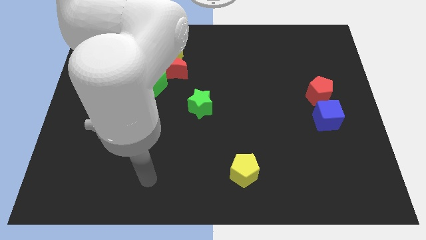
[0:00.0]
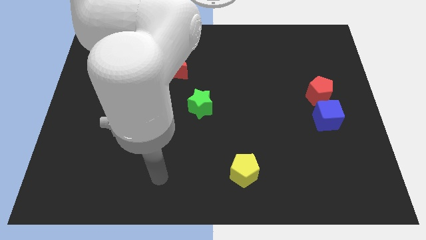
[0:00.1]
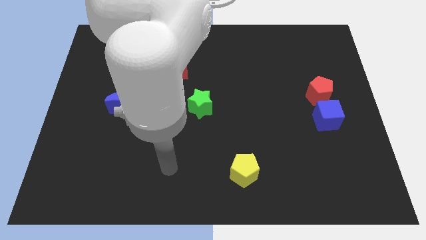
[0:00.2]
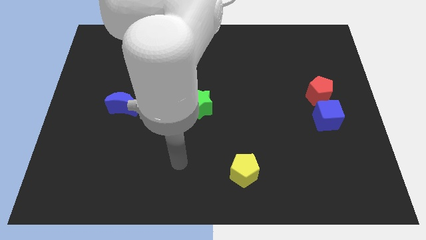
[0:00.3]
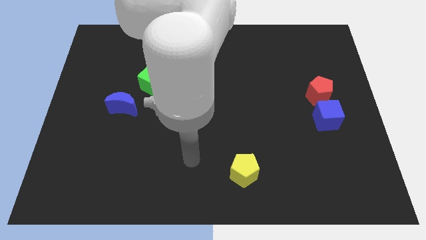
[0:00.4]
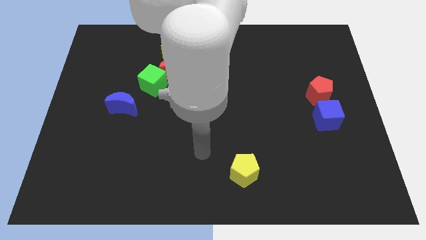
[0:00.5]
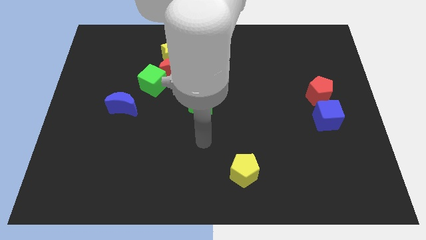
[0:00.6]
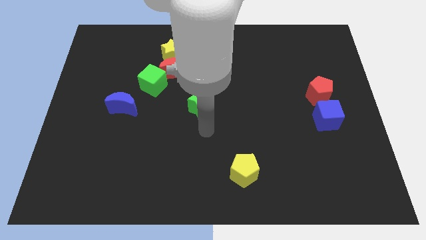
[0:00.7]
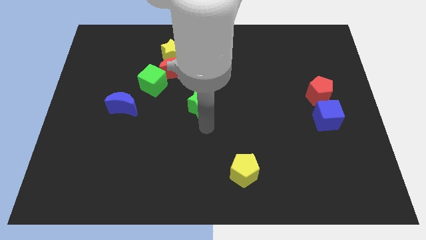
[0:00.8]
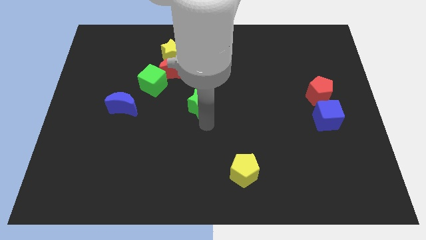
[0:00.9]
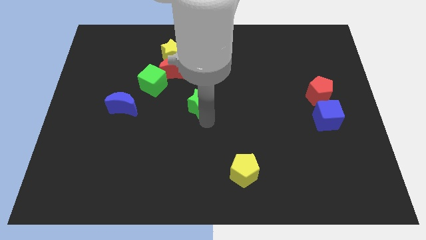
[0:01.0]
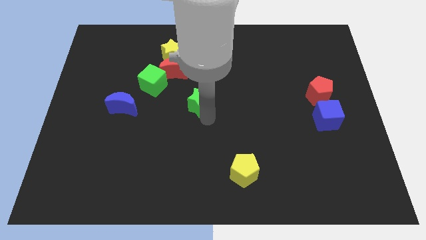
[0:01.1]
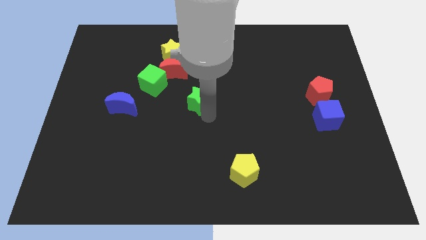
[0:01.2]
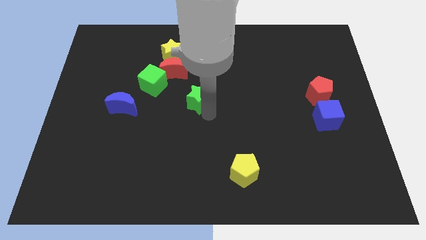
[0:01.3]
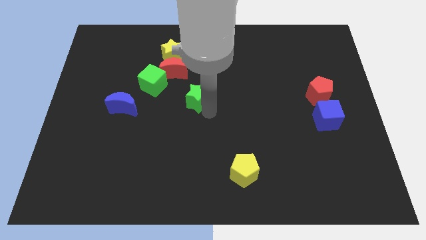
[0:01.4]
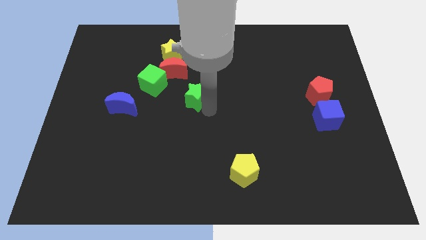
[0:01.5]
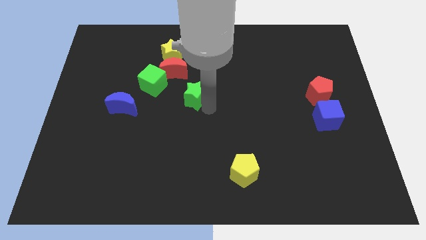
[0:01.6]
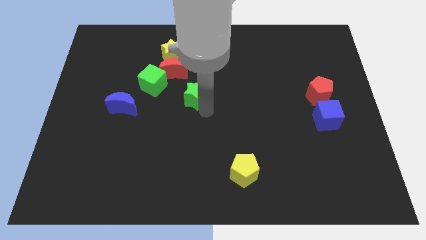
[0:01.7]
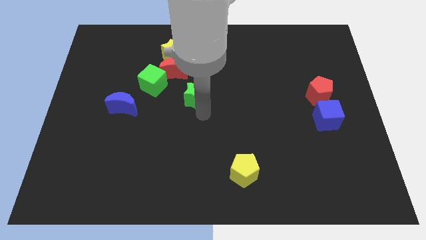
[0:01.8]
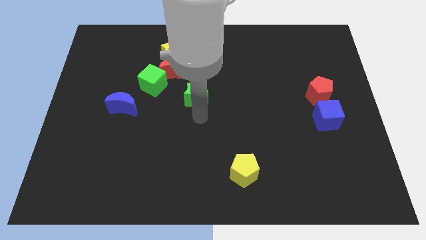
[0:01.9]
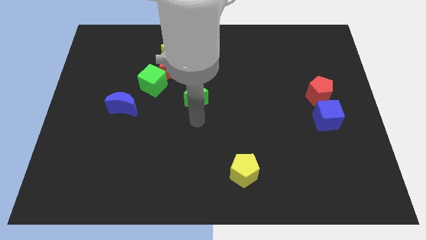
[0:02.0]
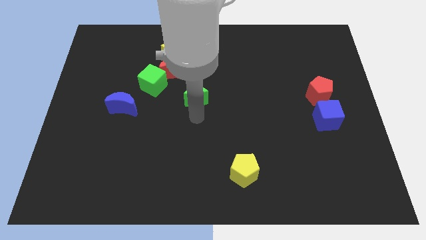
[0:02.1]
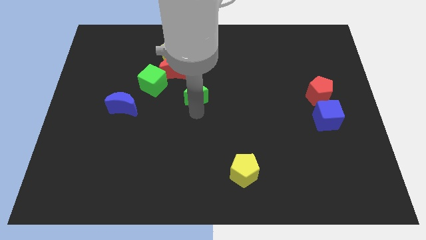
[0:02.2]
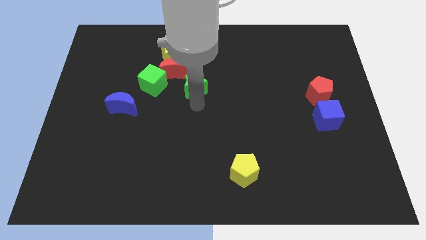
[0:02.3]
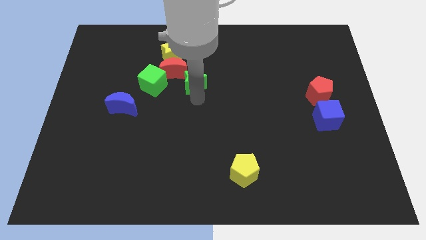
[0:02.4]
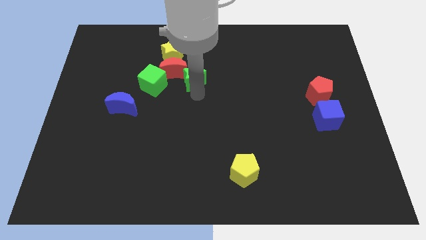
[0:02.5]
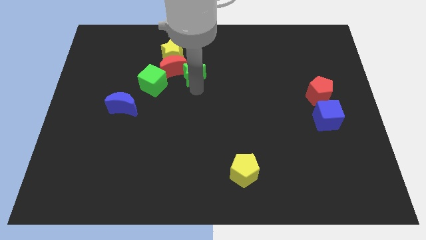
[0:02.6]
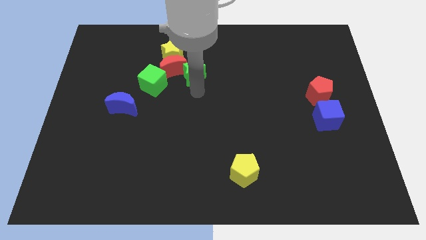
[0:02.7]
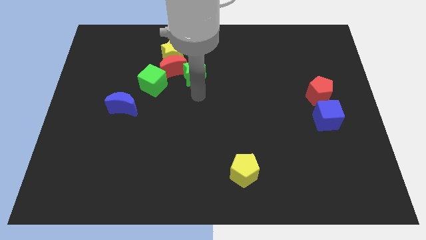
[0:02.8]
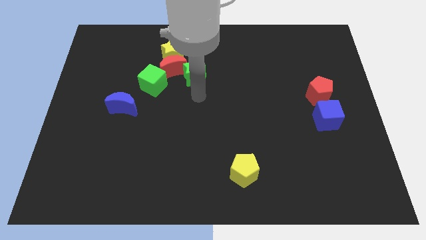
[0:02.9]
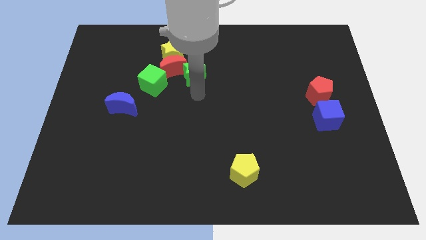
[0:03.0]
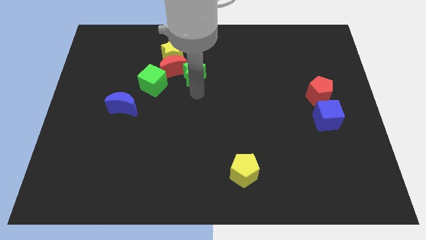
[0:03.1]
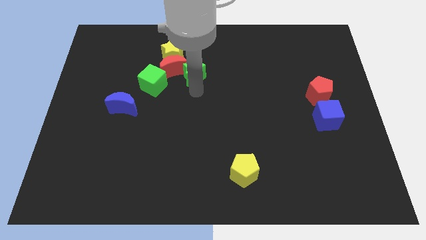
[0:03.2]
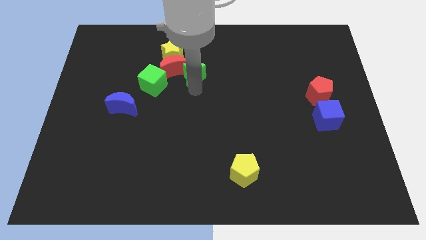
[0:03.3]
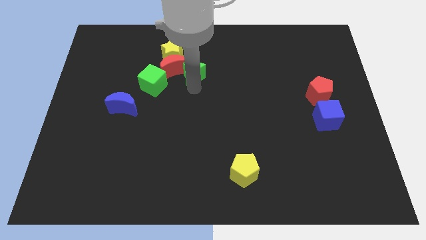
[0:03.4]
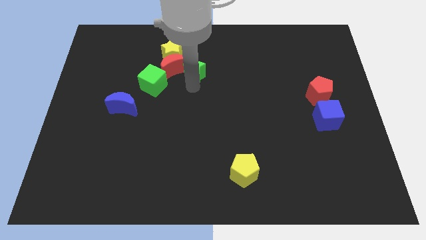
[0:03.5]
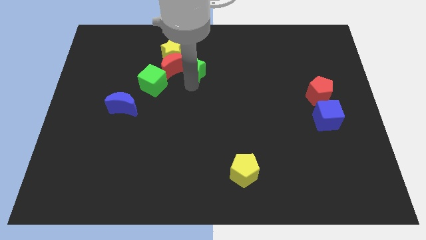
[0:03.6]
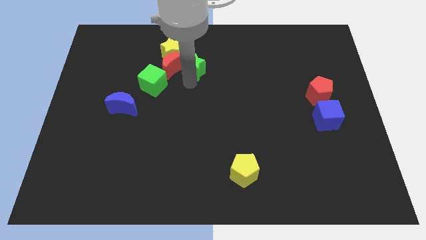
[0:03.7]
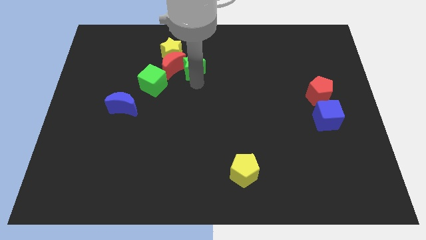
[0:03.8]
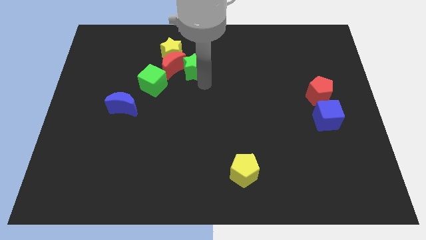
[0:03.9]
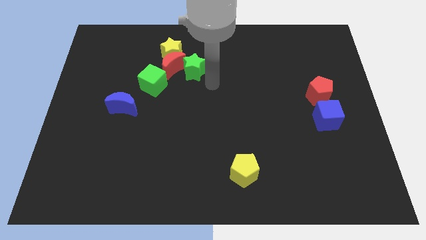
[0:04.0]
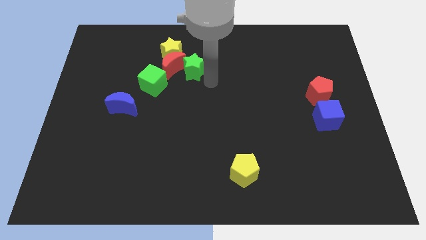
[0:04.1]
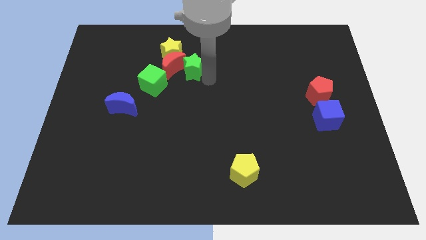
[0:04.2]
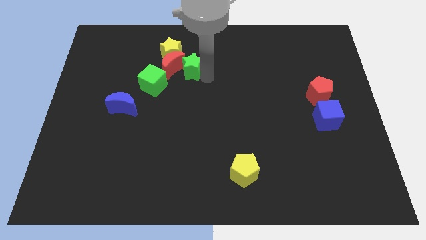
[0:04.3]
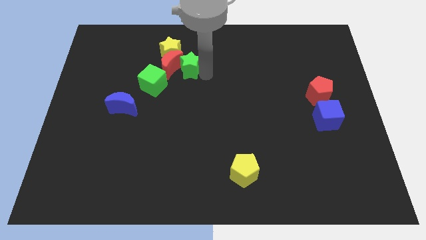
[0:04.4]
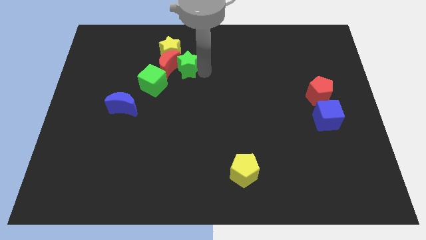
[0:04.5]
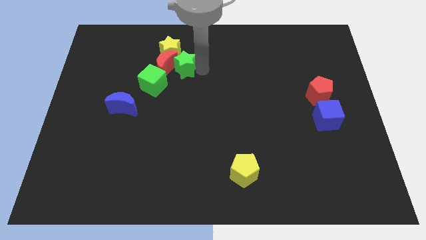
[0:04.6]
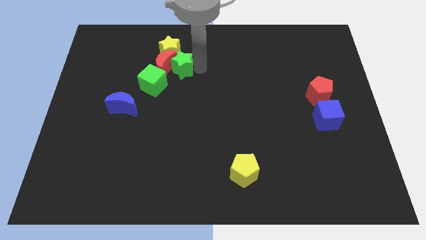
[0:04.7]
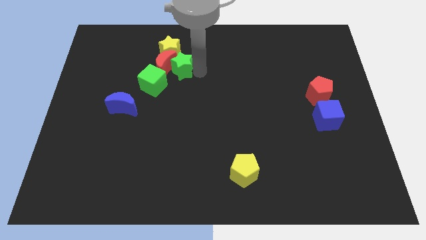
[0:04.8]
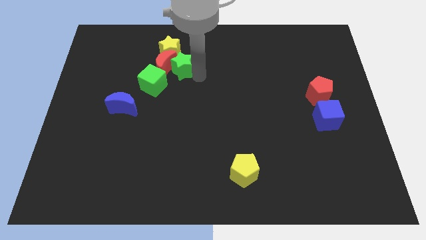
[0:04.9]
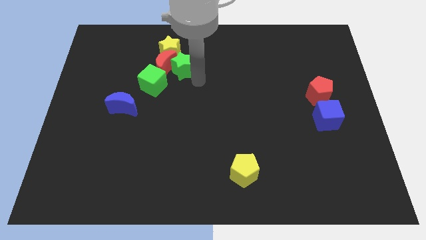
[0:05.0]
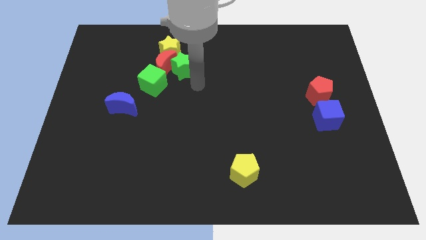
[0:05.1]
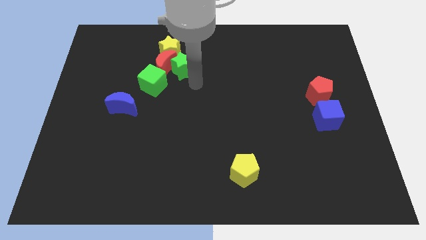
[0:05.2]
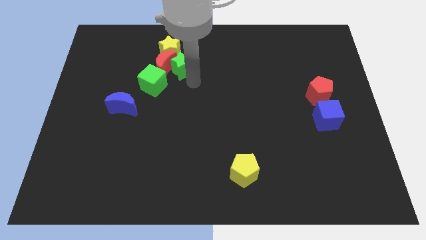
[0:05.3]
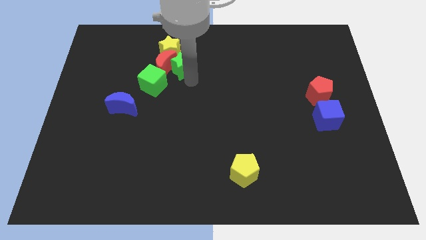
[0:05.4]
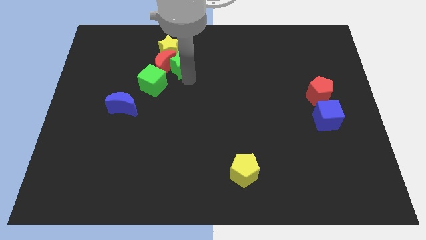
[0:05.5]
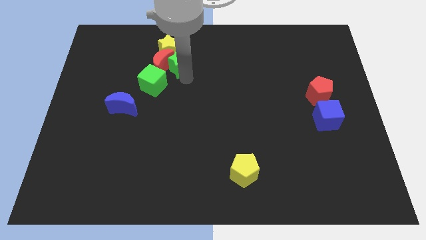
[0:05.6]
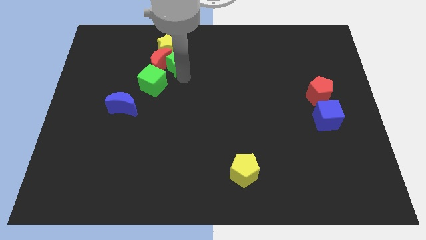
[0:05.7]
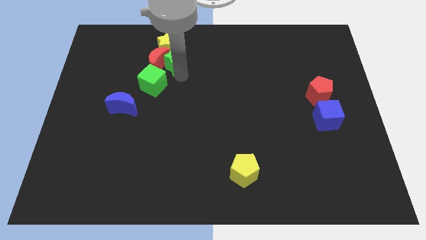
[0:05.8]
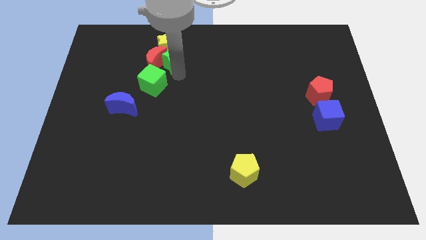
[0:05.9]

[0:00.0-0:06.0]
slide the green star towards the yellow star

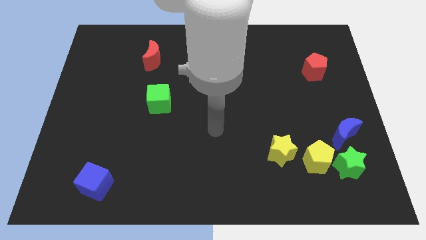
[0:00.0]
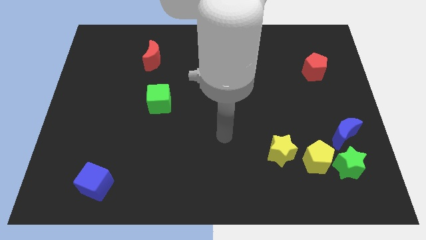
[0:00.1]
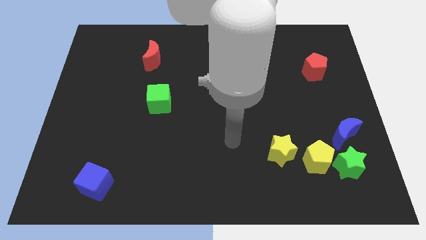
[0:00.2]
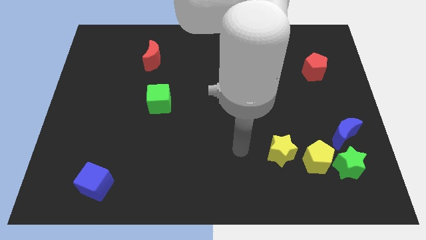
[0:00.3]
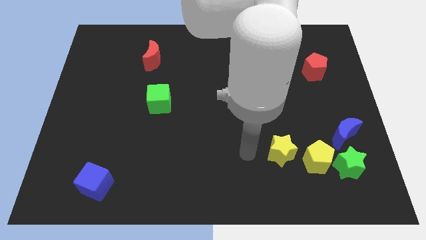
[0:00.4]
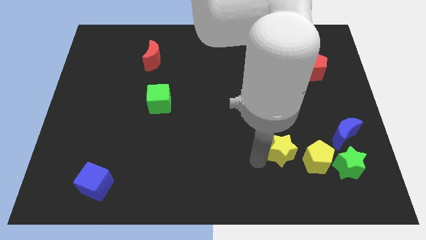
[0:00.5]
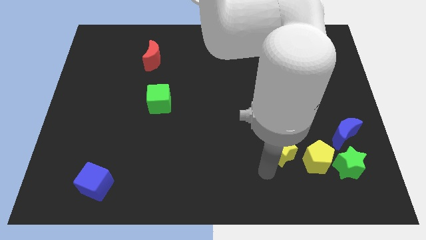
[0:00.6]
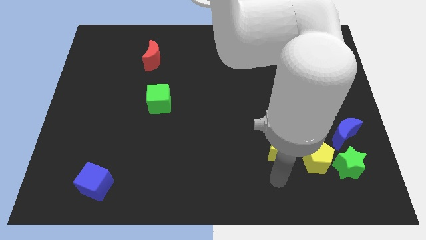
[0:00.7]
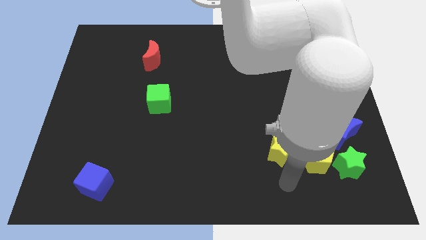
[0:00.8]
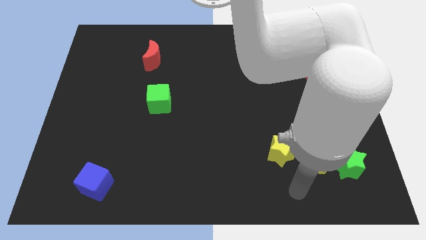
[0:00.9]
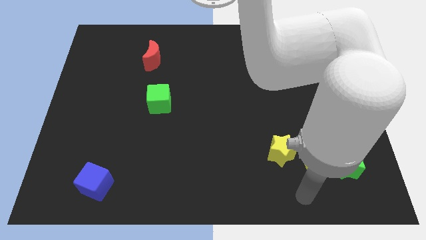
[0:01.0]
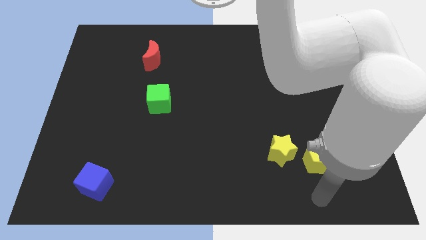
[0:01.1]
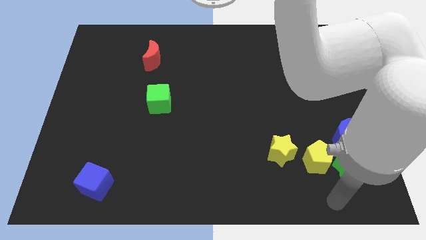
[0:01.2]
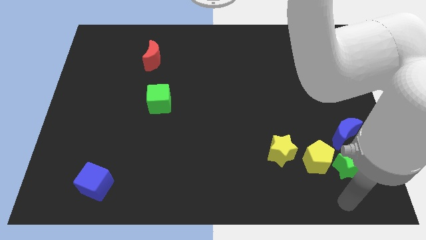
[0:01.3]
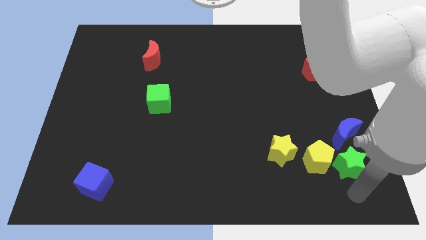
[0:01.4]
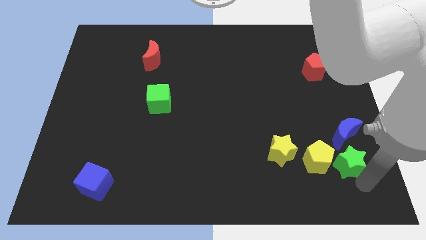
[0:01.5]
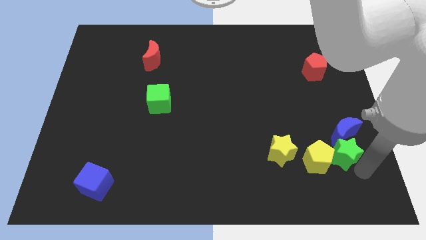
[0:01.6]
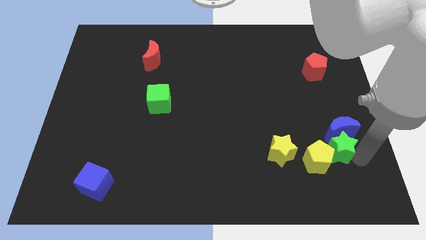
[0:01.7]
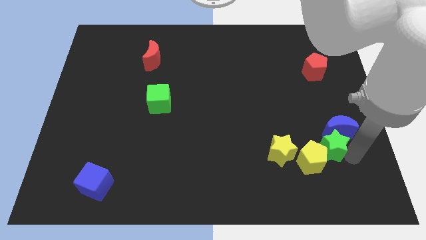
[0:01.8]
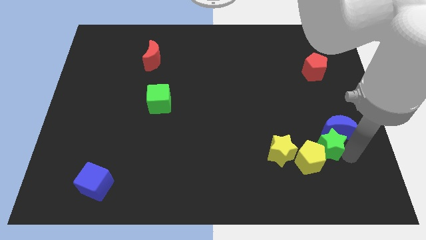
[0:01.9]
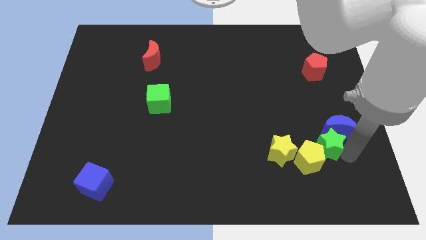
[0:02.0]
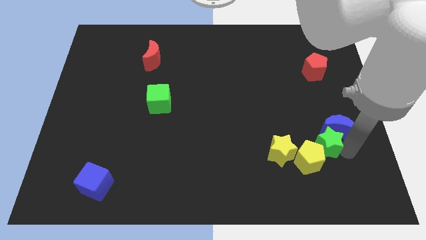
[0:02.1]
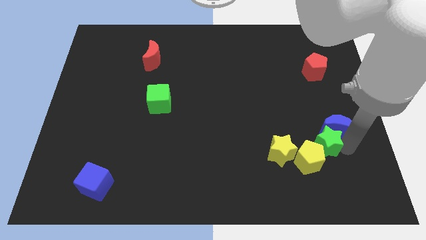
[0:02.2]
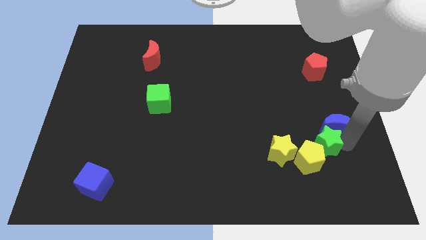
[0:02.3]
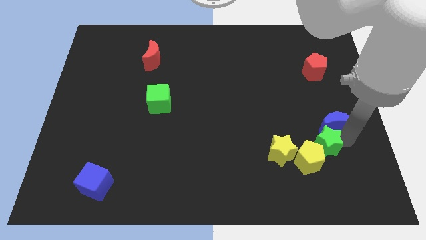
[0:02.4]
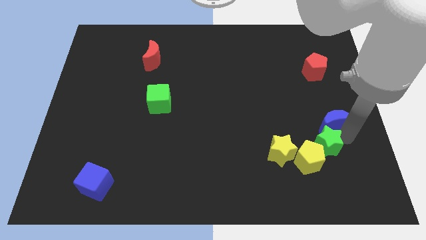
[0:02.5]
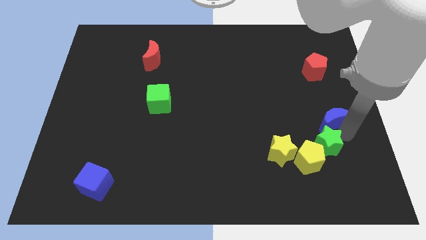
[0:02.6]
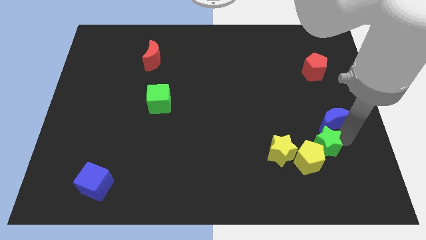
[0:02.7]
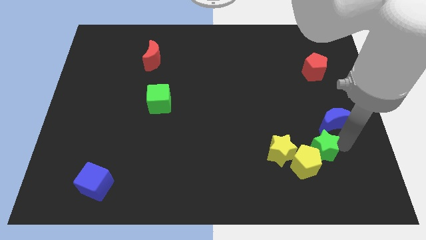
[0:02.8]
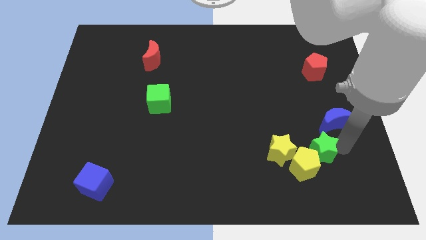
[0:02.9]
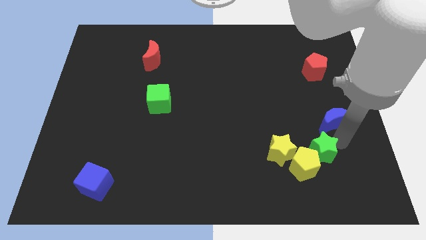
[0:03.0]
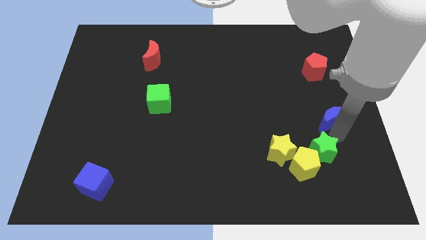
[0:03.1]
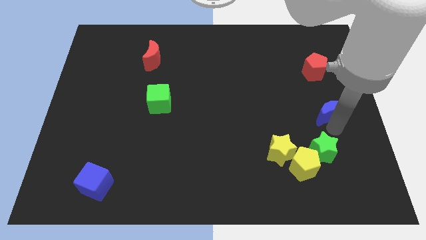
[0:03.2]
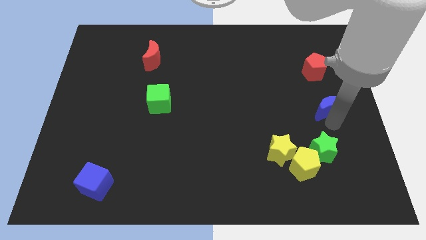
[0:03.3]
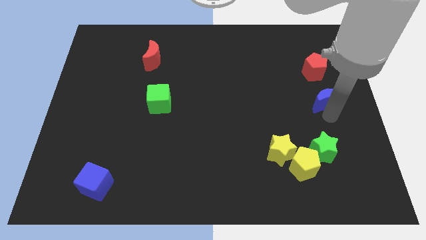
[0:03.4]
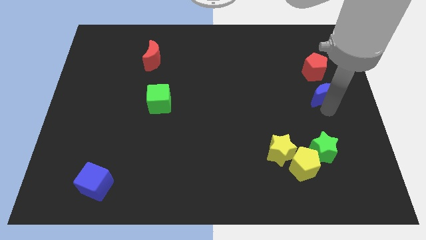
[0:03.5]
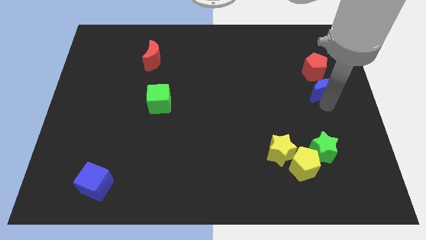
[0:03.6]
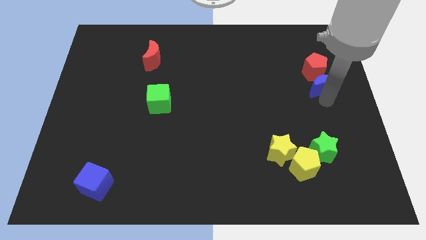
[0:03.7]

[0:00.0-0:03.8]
push the blue moon to the red pentagon
